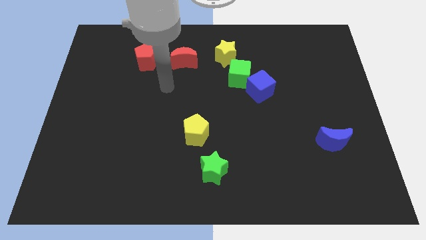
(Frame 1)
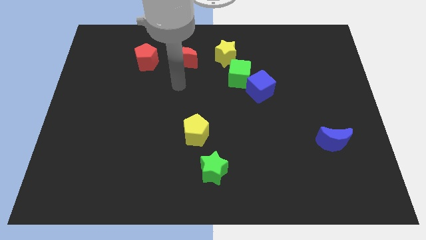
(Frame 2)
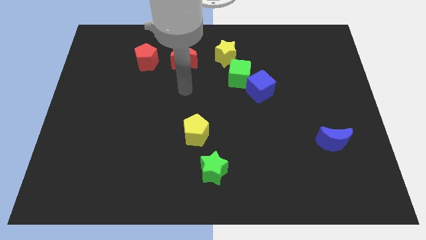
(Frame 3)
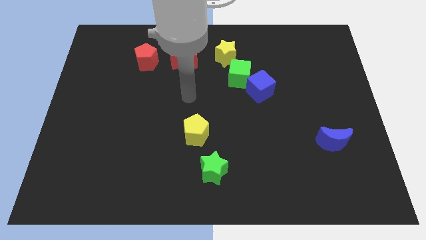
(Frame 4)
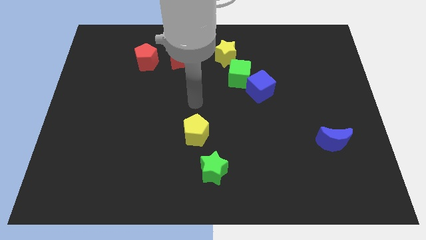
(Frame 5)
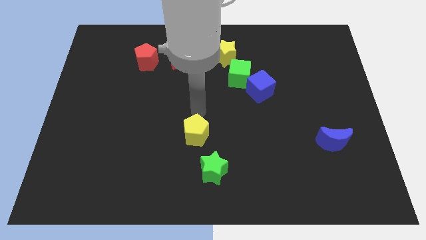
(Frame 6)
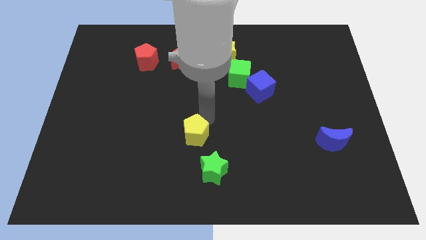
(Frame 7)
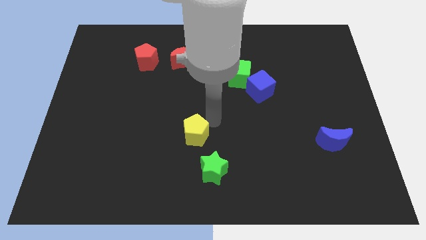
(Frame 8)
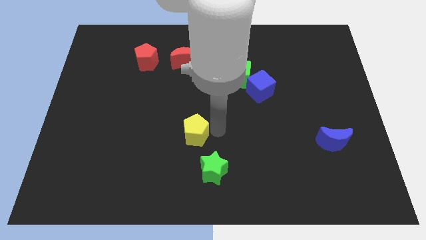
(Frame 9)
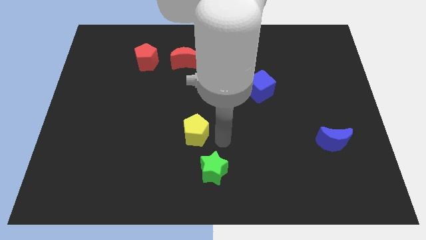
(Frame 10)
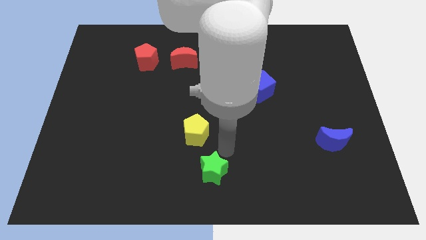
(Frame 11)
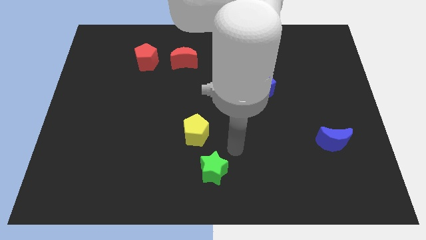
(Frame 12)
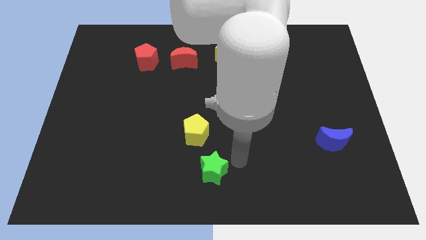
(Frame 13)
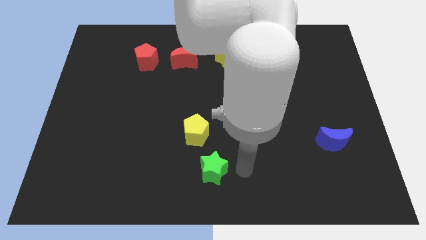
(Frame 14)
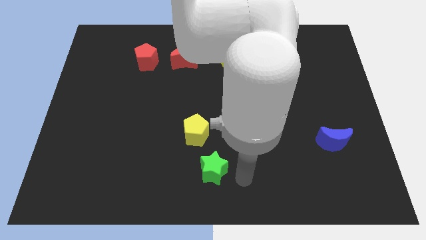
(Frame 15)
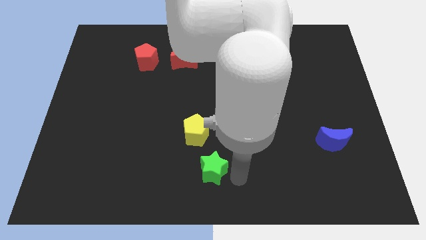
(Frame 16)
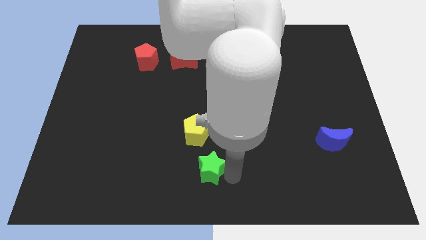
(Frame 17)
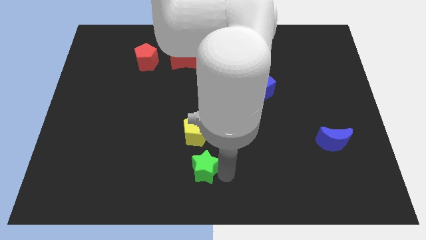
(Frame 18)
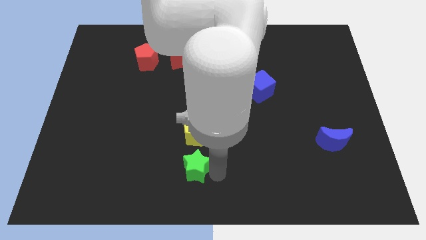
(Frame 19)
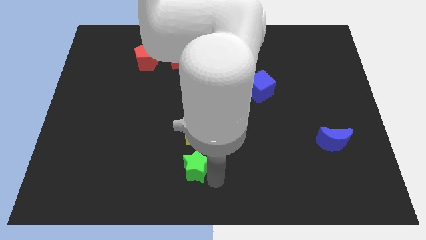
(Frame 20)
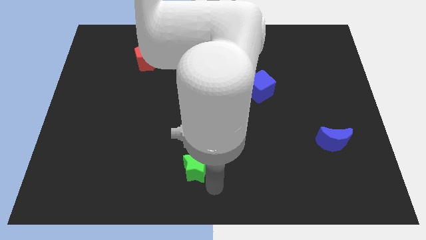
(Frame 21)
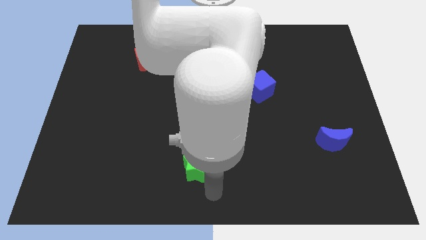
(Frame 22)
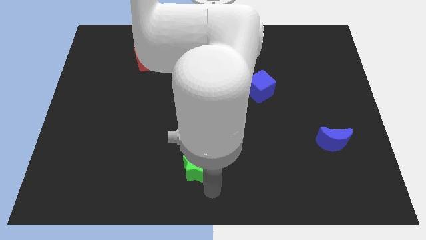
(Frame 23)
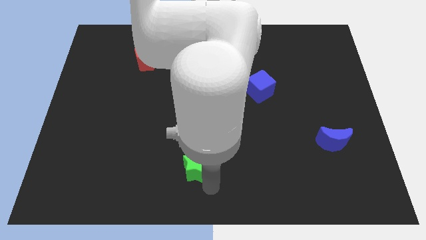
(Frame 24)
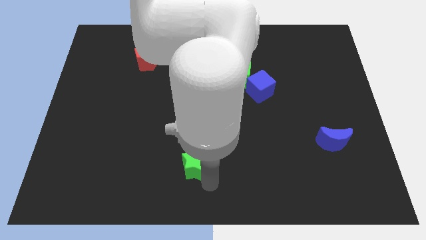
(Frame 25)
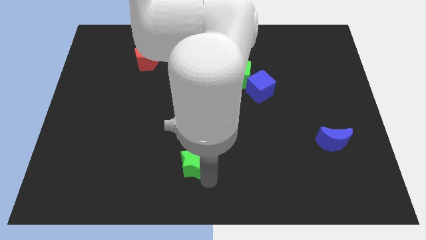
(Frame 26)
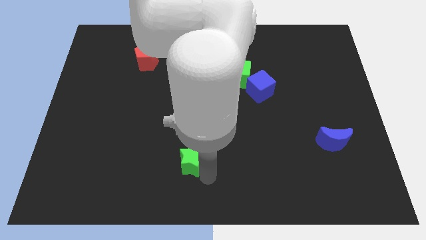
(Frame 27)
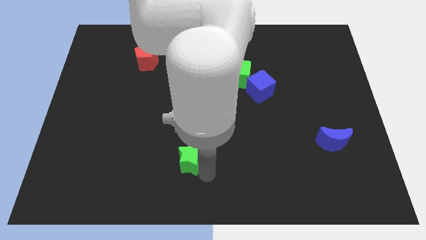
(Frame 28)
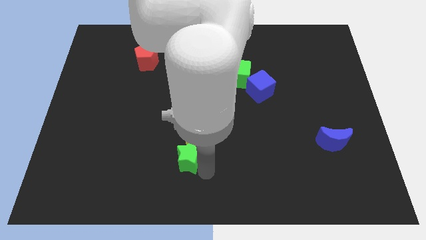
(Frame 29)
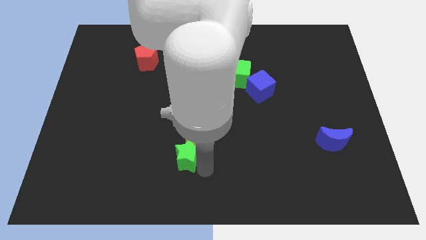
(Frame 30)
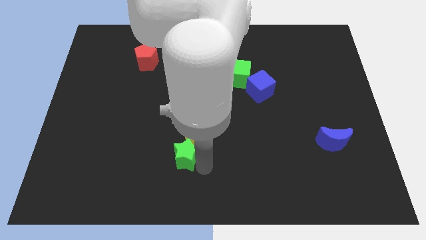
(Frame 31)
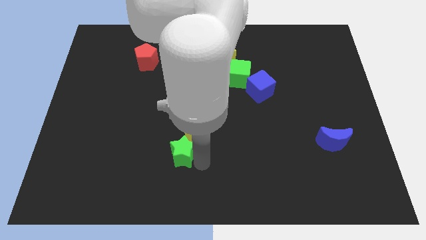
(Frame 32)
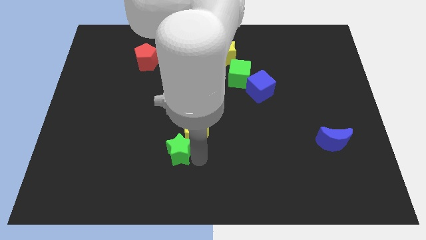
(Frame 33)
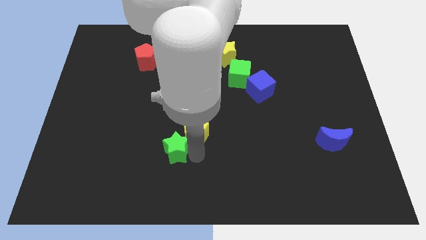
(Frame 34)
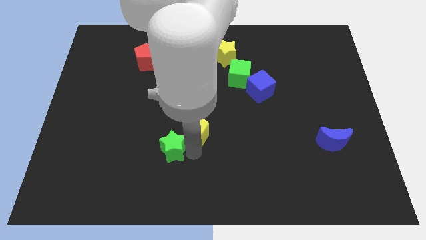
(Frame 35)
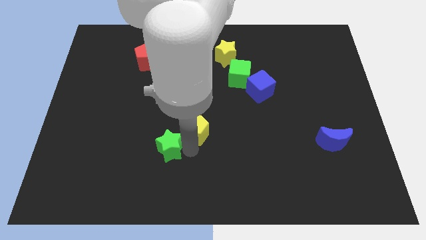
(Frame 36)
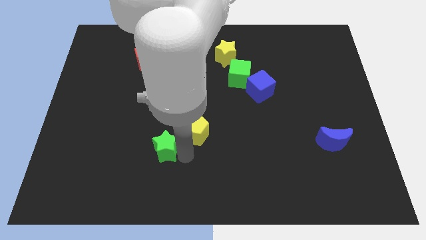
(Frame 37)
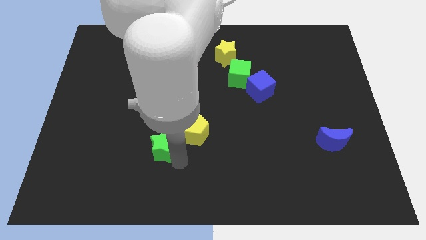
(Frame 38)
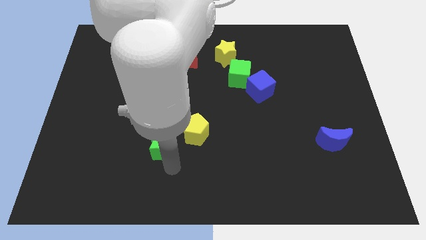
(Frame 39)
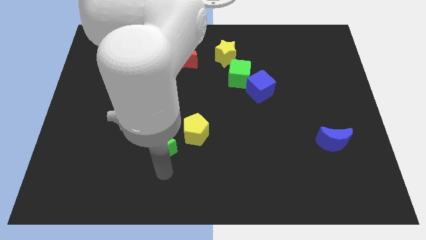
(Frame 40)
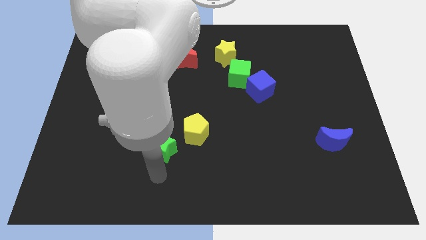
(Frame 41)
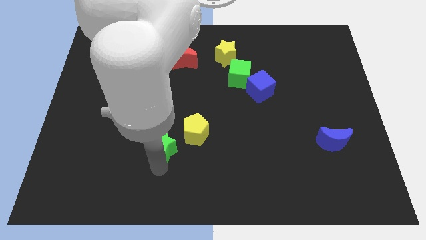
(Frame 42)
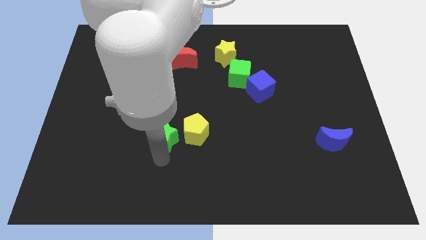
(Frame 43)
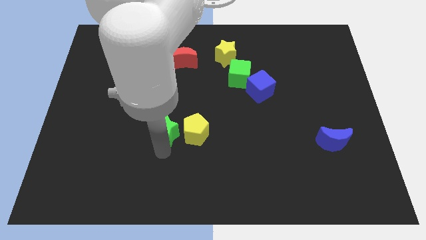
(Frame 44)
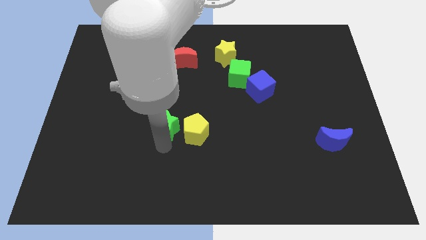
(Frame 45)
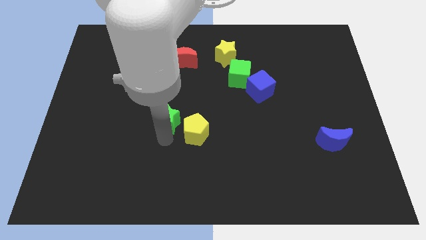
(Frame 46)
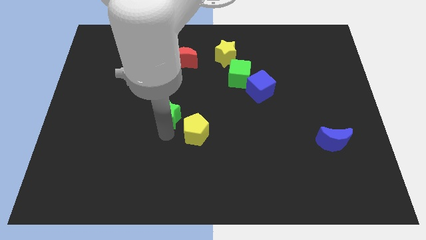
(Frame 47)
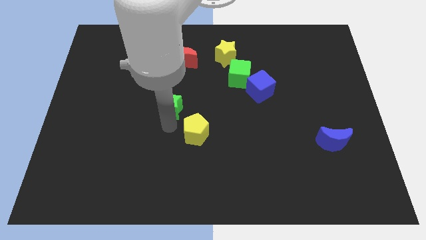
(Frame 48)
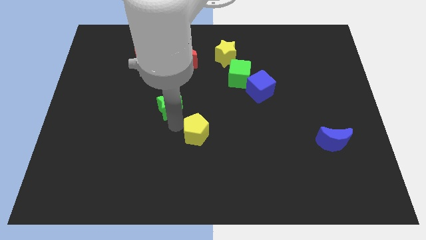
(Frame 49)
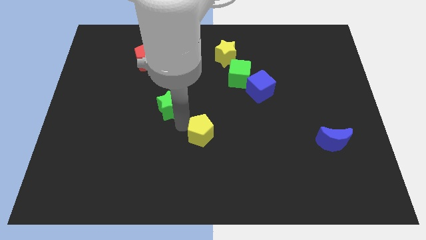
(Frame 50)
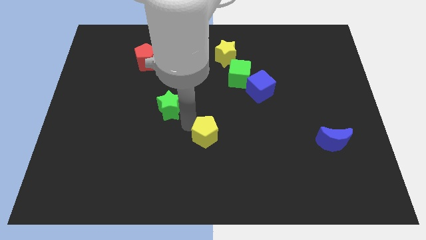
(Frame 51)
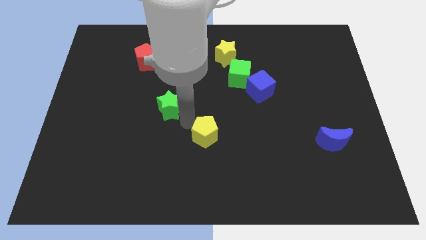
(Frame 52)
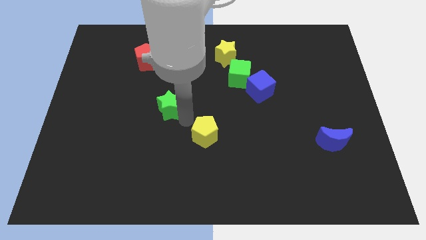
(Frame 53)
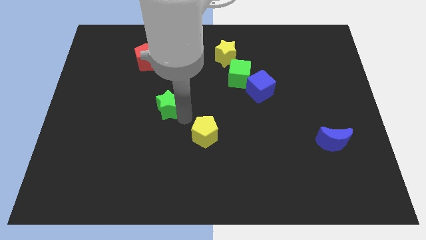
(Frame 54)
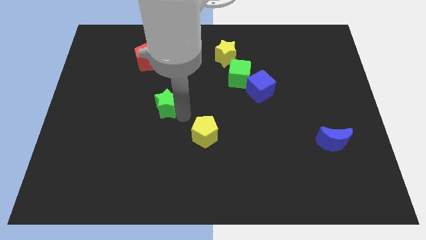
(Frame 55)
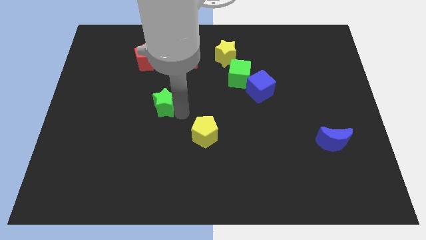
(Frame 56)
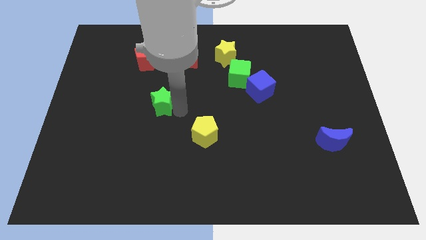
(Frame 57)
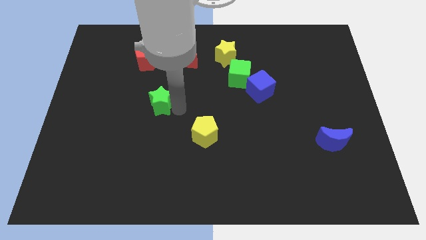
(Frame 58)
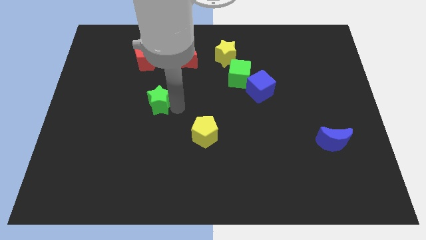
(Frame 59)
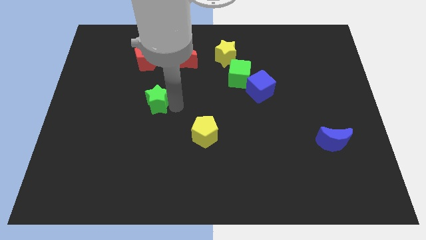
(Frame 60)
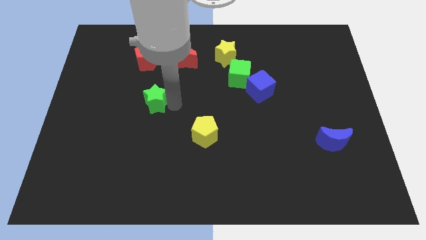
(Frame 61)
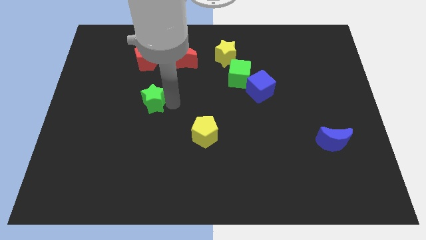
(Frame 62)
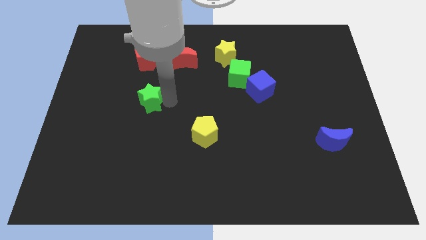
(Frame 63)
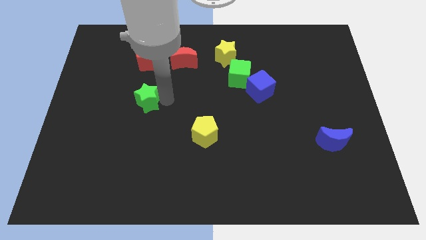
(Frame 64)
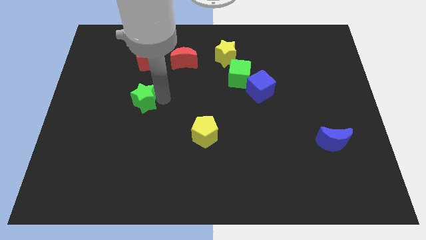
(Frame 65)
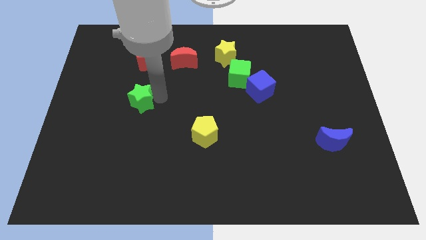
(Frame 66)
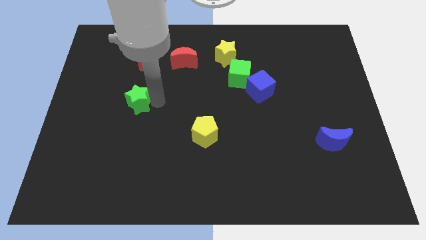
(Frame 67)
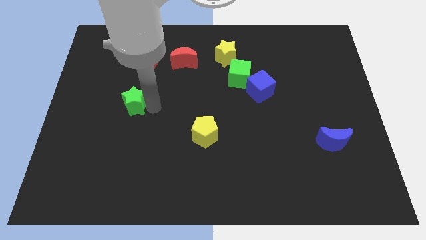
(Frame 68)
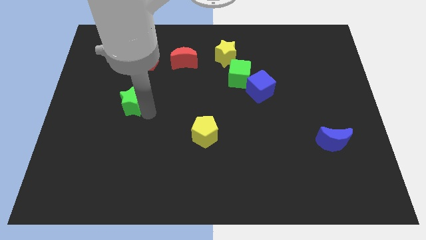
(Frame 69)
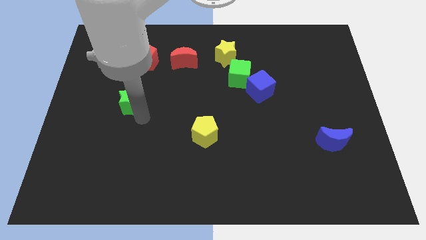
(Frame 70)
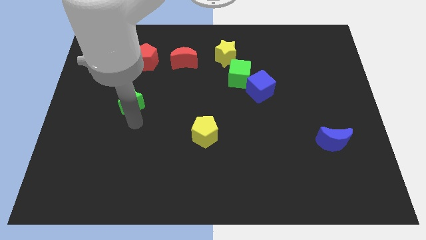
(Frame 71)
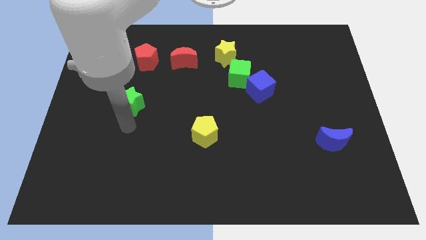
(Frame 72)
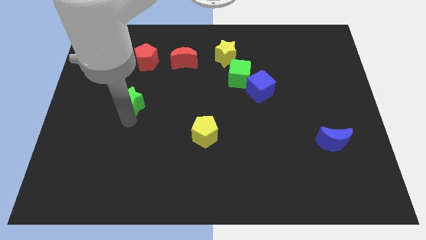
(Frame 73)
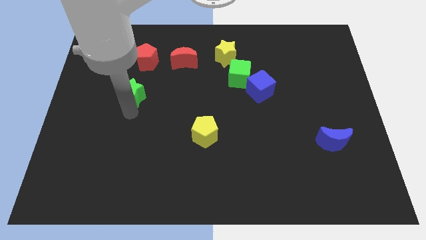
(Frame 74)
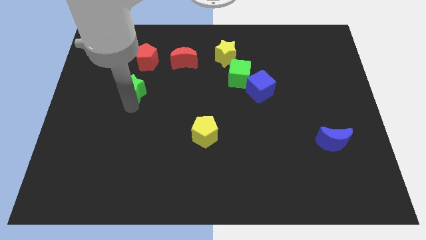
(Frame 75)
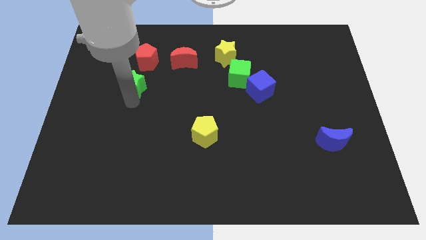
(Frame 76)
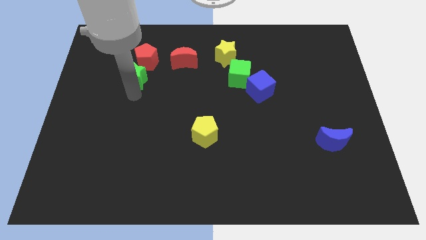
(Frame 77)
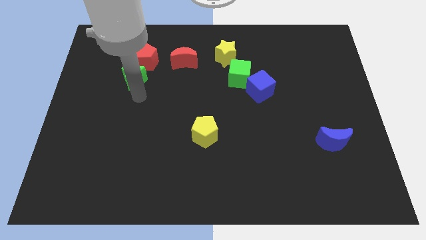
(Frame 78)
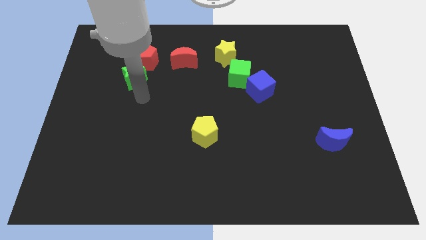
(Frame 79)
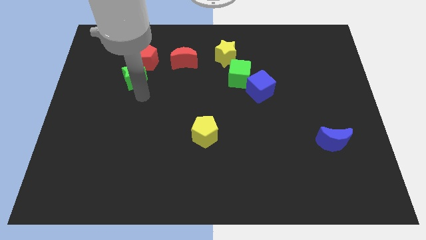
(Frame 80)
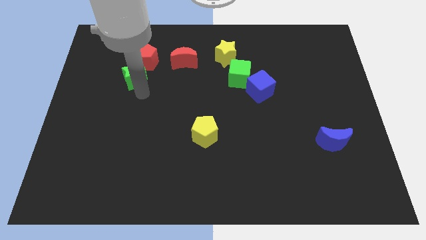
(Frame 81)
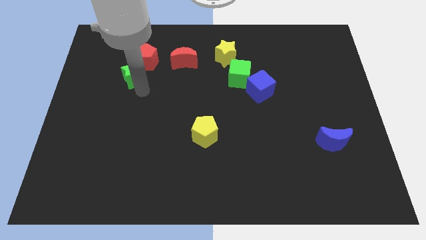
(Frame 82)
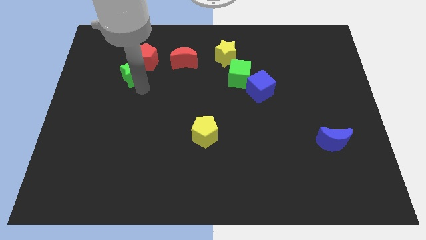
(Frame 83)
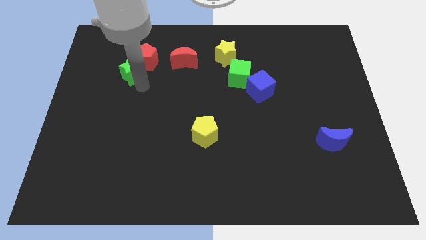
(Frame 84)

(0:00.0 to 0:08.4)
push the green star just left of the red moon
